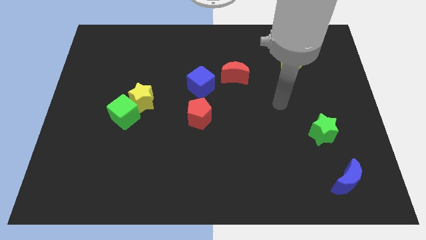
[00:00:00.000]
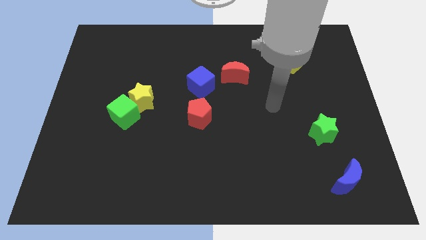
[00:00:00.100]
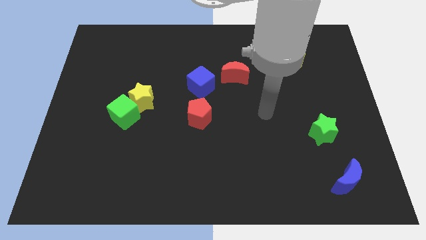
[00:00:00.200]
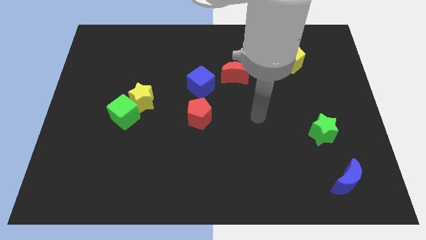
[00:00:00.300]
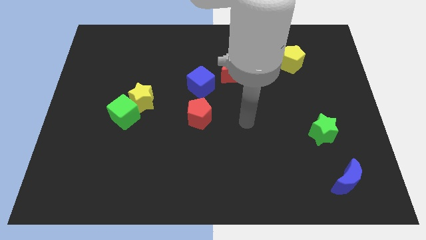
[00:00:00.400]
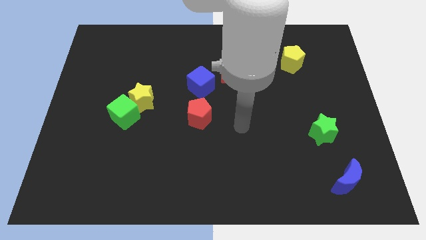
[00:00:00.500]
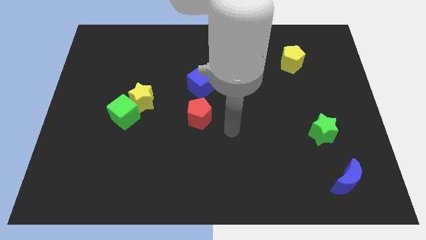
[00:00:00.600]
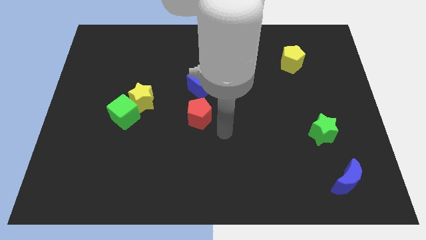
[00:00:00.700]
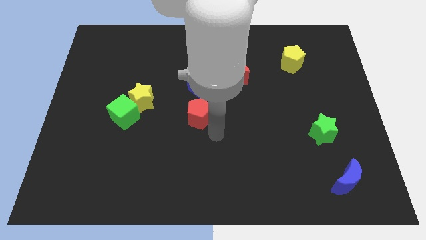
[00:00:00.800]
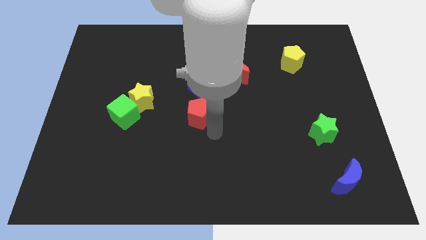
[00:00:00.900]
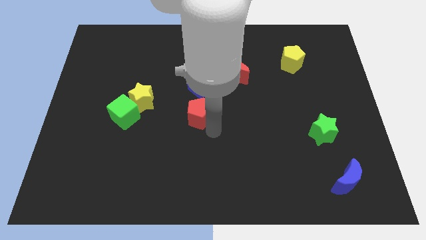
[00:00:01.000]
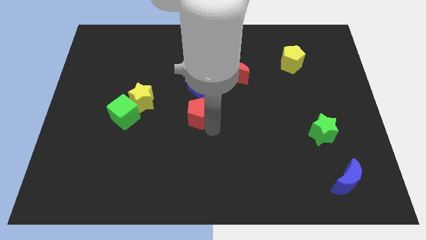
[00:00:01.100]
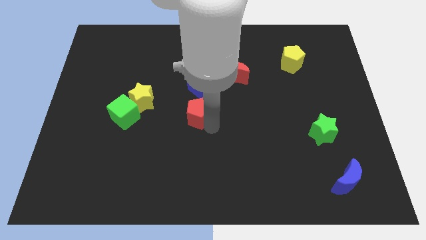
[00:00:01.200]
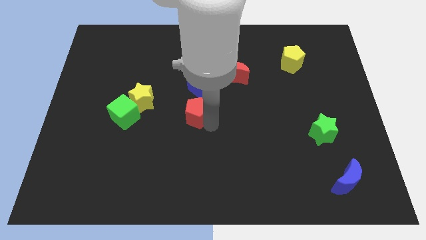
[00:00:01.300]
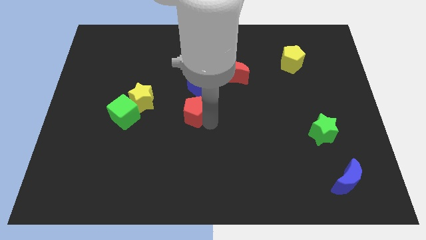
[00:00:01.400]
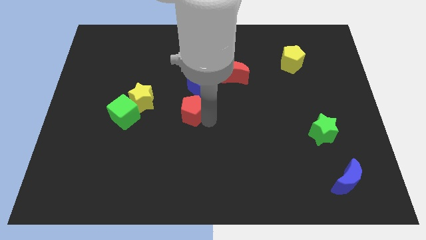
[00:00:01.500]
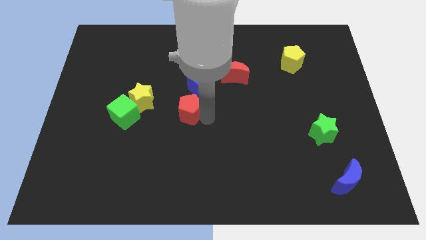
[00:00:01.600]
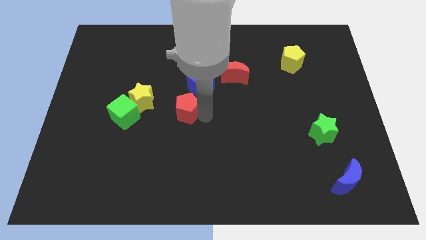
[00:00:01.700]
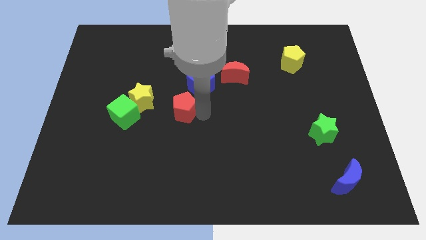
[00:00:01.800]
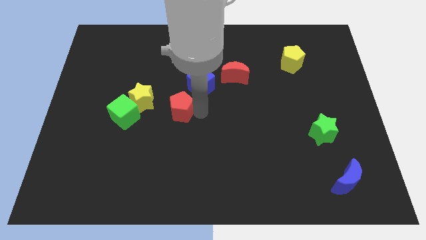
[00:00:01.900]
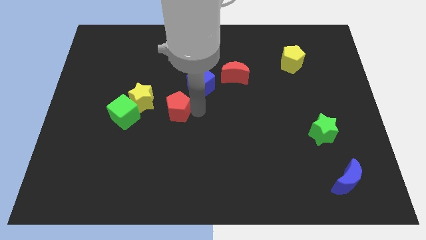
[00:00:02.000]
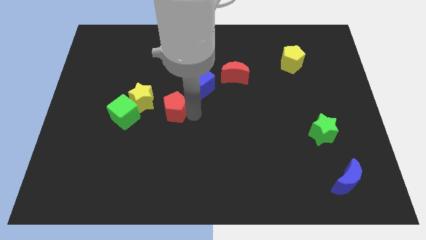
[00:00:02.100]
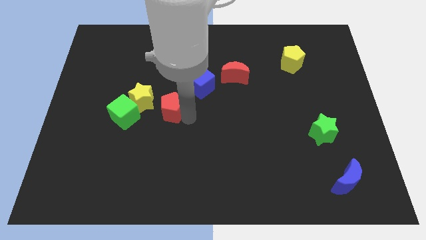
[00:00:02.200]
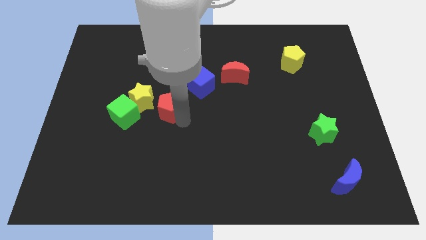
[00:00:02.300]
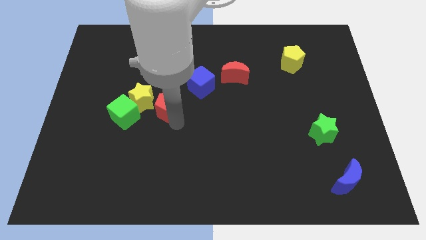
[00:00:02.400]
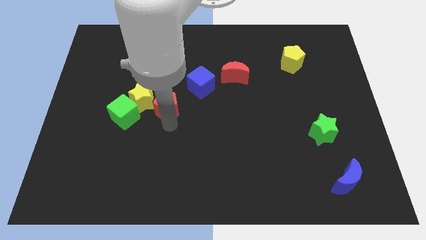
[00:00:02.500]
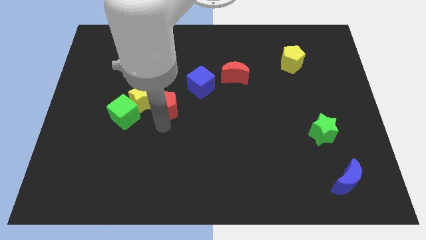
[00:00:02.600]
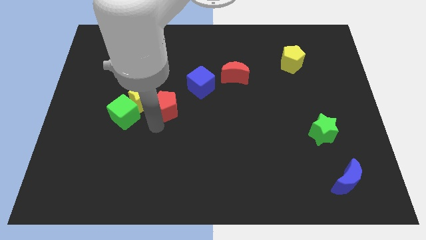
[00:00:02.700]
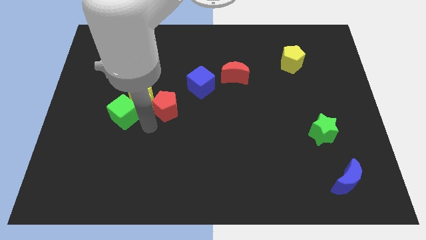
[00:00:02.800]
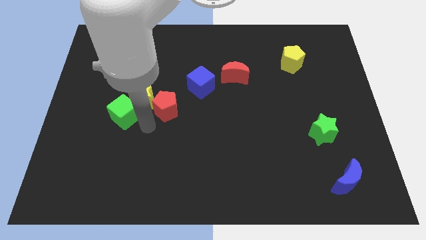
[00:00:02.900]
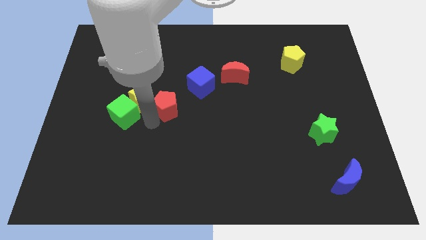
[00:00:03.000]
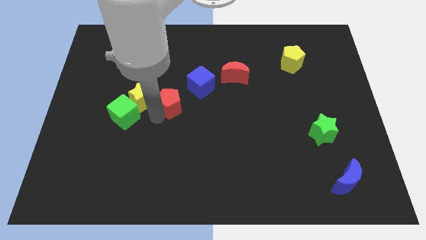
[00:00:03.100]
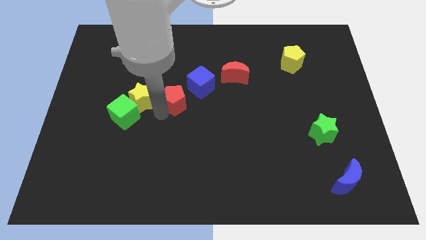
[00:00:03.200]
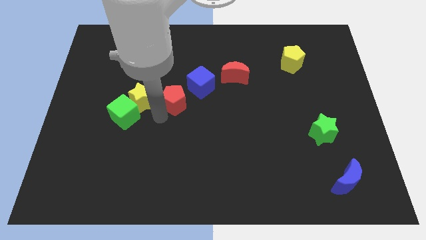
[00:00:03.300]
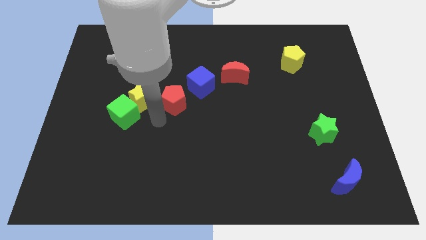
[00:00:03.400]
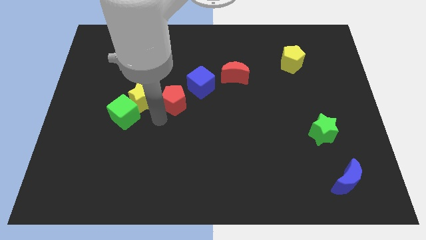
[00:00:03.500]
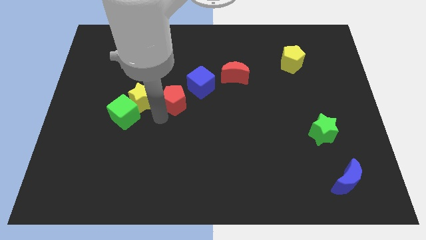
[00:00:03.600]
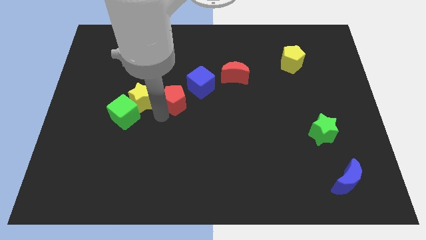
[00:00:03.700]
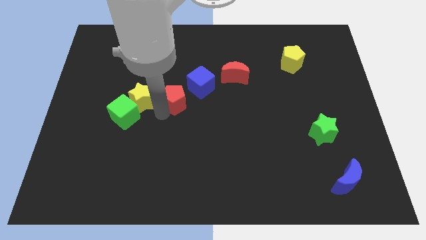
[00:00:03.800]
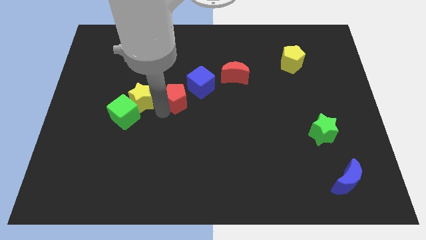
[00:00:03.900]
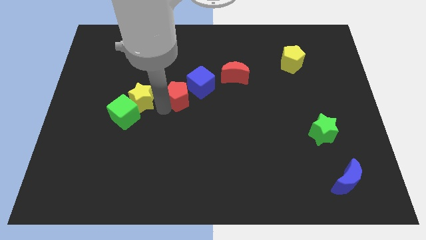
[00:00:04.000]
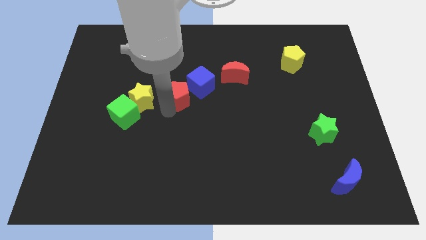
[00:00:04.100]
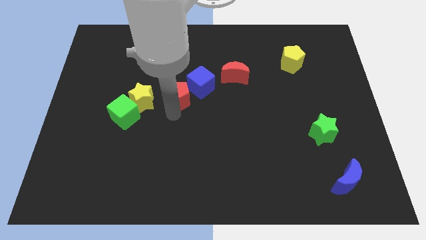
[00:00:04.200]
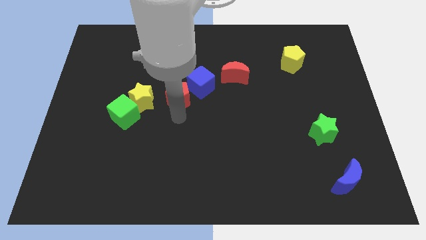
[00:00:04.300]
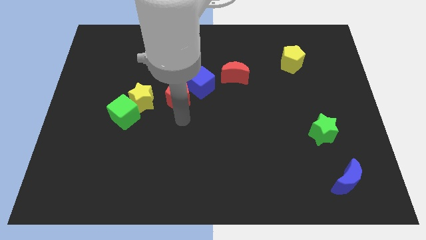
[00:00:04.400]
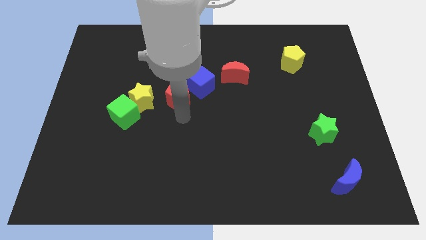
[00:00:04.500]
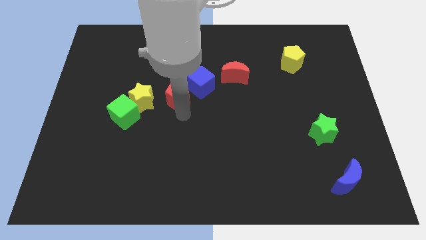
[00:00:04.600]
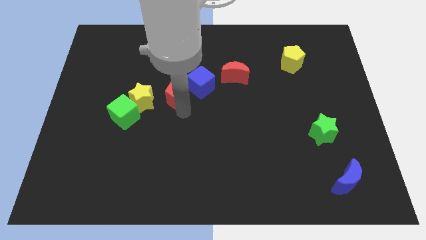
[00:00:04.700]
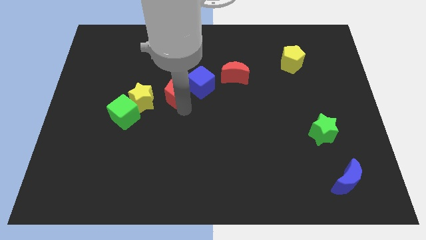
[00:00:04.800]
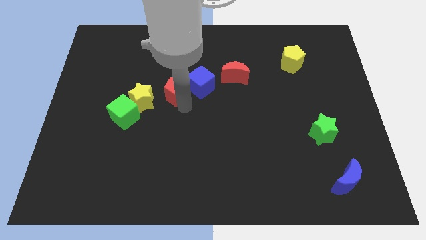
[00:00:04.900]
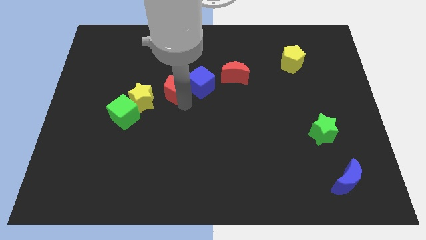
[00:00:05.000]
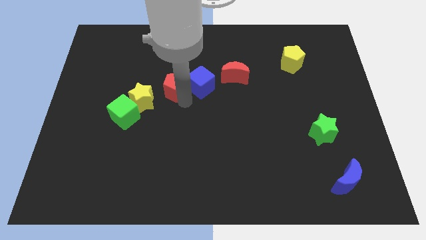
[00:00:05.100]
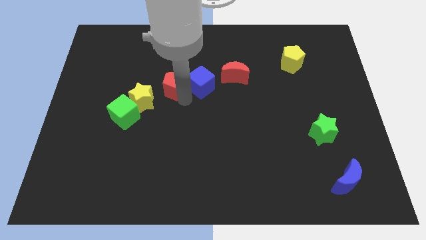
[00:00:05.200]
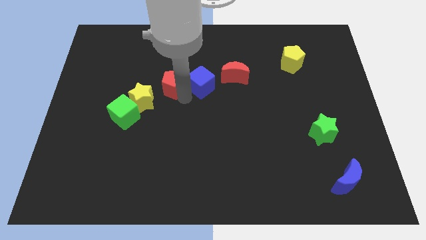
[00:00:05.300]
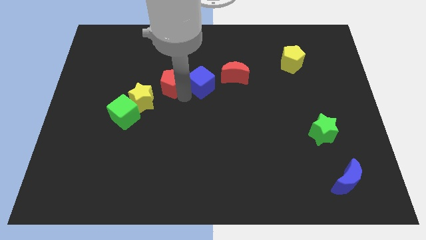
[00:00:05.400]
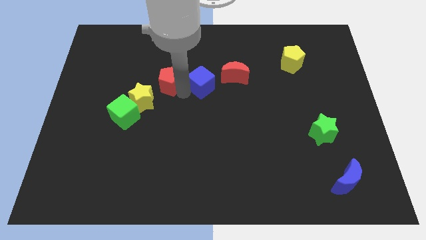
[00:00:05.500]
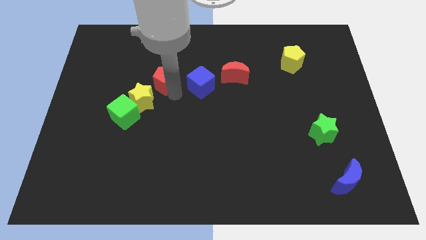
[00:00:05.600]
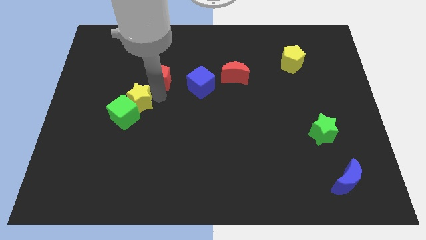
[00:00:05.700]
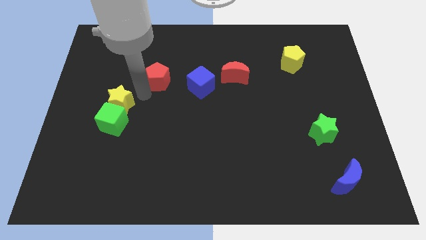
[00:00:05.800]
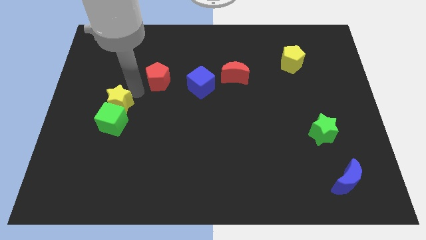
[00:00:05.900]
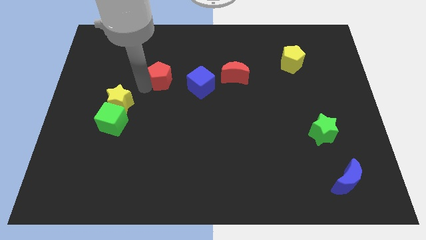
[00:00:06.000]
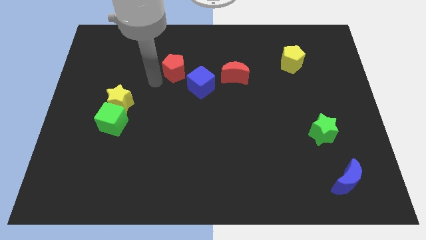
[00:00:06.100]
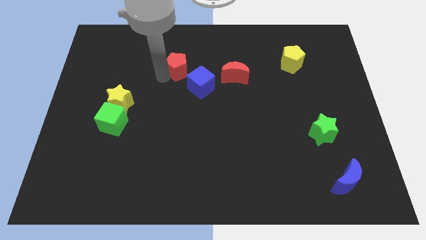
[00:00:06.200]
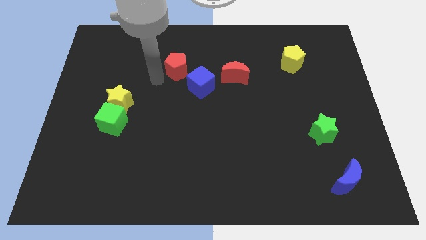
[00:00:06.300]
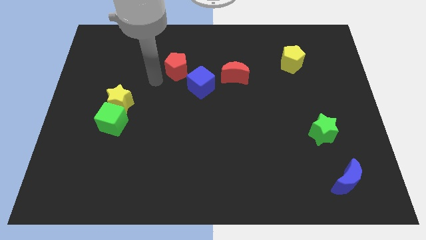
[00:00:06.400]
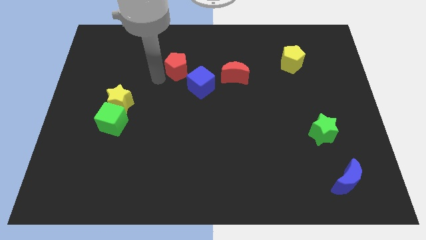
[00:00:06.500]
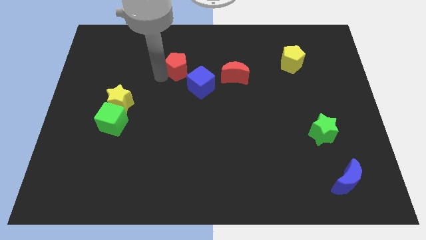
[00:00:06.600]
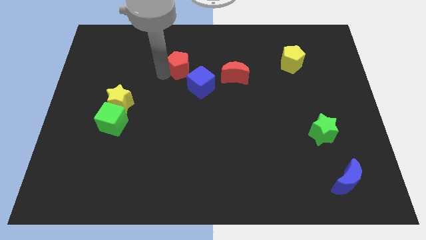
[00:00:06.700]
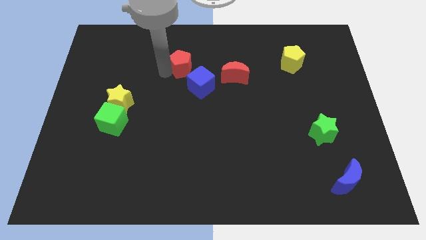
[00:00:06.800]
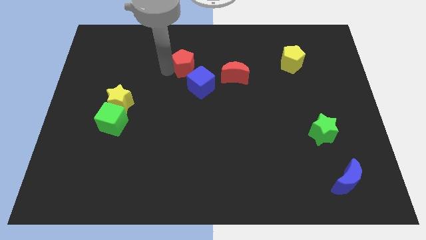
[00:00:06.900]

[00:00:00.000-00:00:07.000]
push the red pentagon above the blue cube
